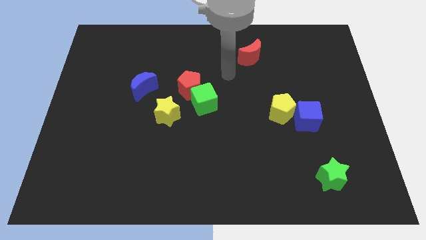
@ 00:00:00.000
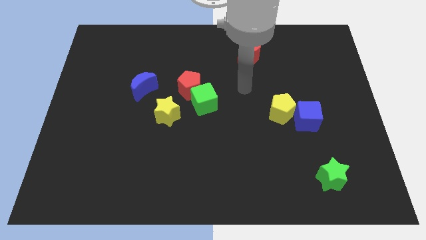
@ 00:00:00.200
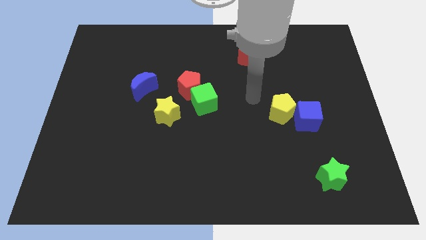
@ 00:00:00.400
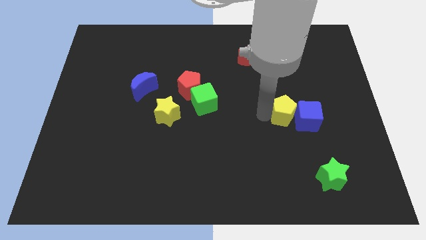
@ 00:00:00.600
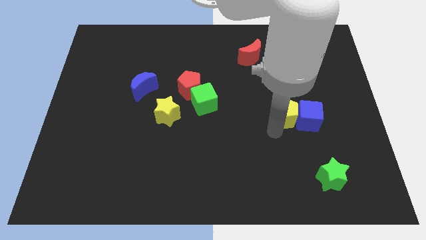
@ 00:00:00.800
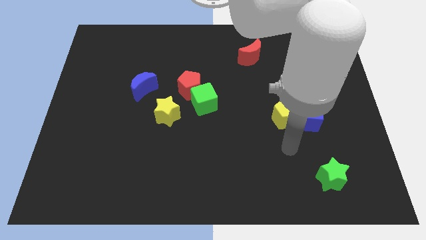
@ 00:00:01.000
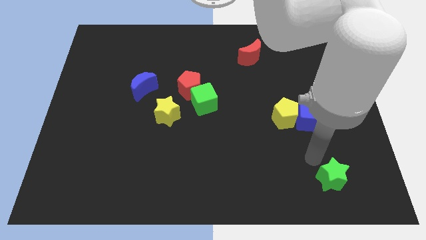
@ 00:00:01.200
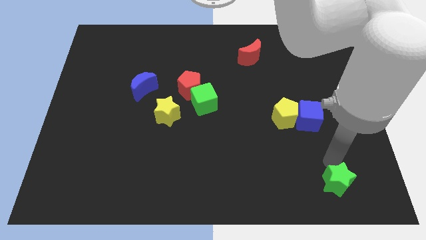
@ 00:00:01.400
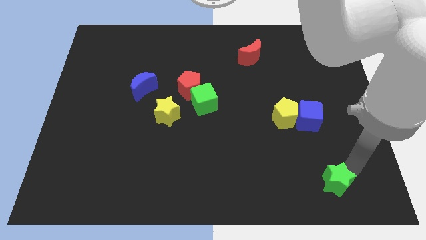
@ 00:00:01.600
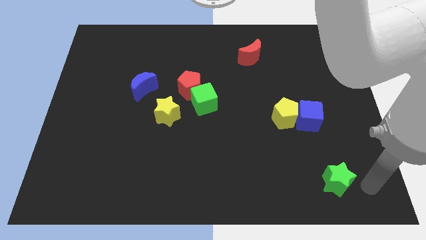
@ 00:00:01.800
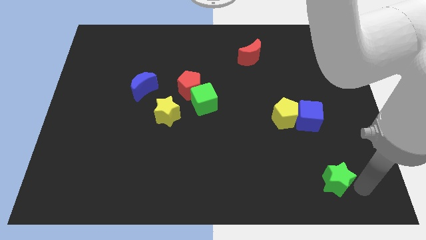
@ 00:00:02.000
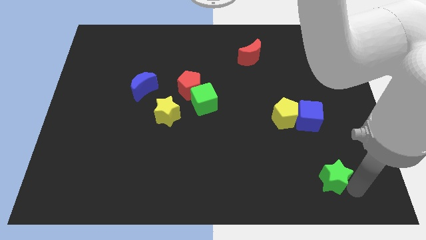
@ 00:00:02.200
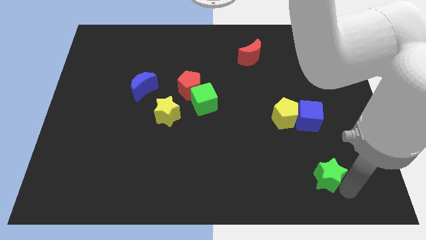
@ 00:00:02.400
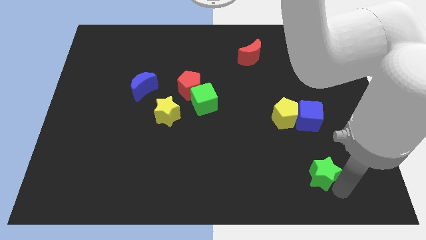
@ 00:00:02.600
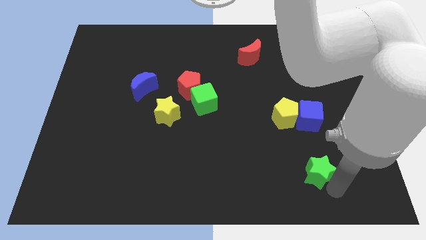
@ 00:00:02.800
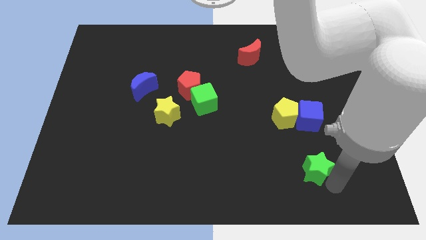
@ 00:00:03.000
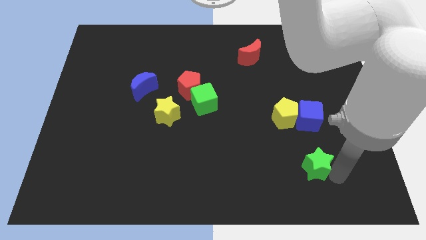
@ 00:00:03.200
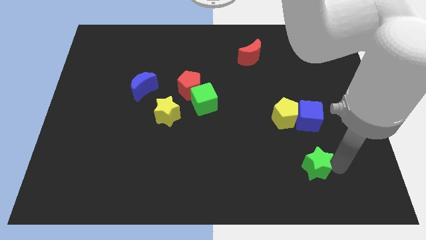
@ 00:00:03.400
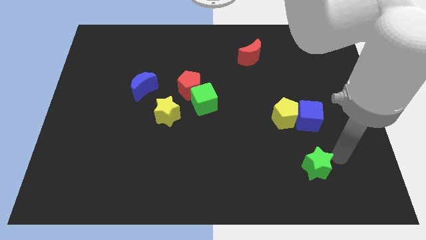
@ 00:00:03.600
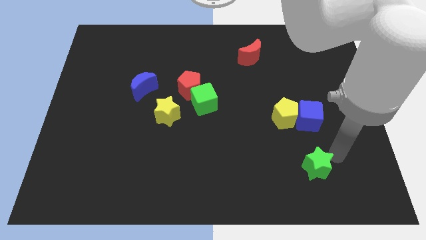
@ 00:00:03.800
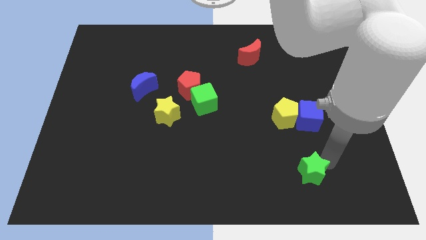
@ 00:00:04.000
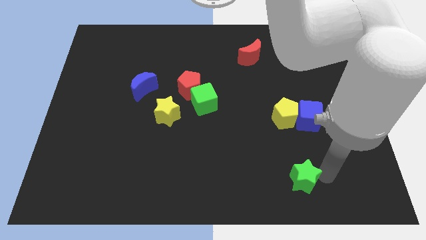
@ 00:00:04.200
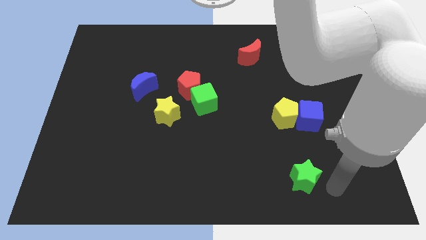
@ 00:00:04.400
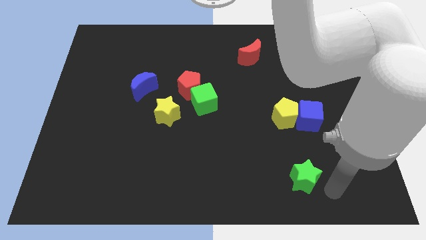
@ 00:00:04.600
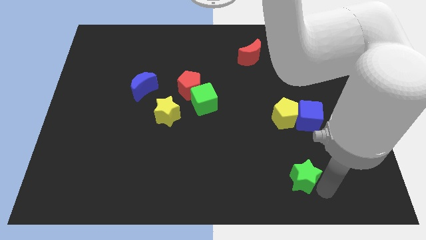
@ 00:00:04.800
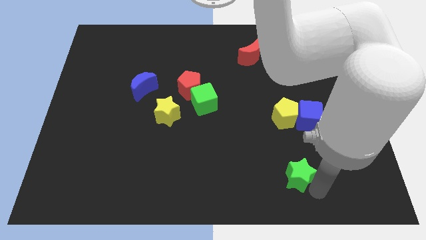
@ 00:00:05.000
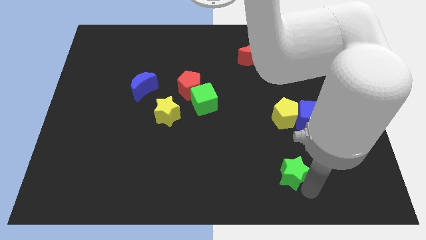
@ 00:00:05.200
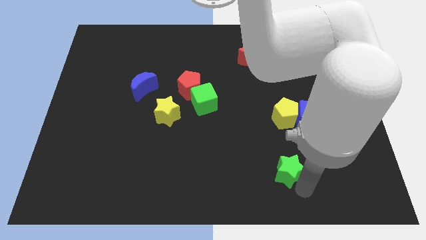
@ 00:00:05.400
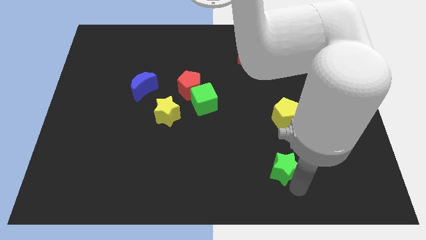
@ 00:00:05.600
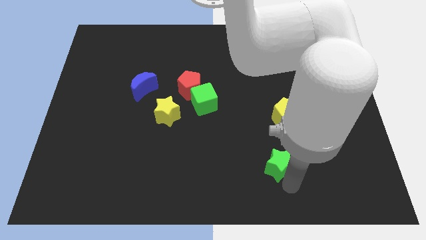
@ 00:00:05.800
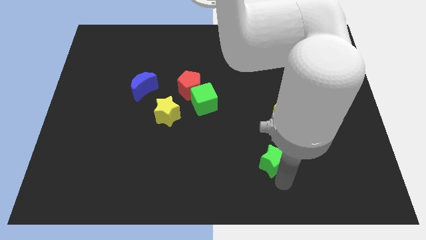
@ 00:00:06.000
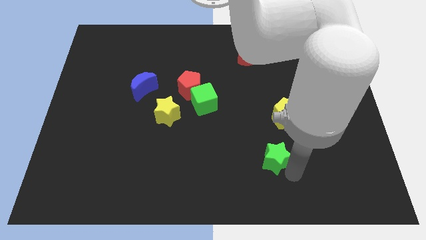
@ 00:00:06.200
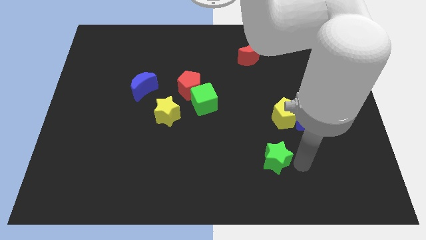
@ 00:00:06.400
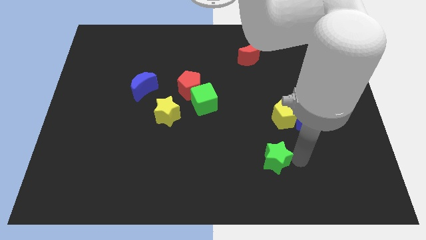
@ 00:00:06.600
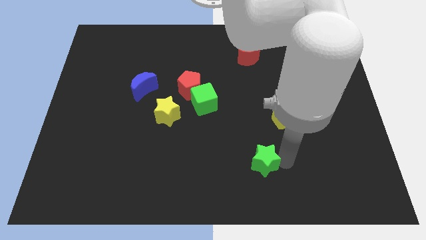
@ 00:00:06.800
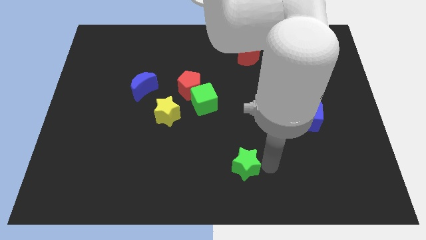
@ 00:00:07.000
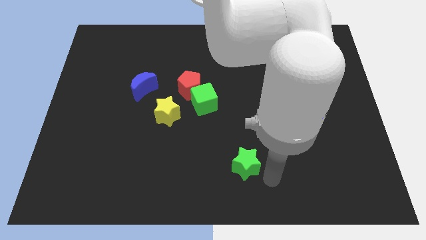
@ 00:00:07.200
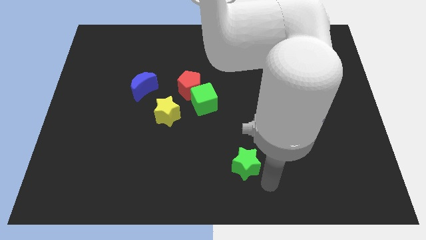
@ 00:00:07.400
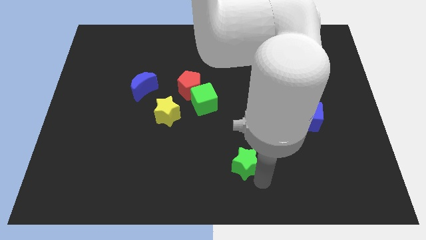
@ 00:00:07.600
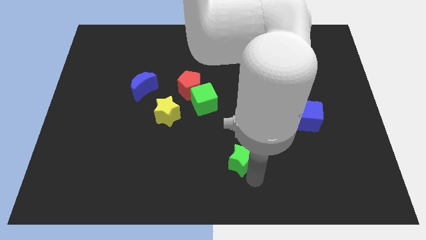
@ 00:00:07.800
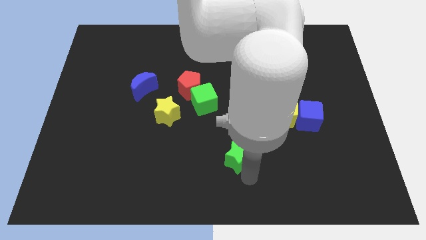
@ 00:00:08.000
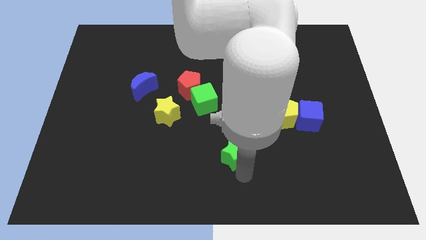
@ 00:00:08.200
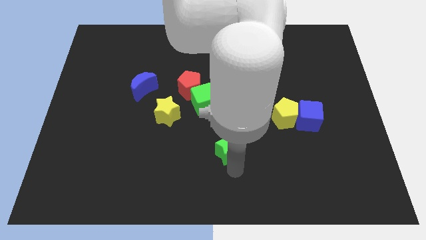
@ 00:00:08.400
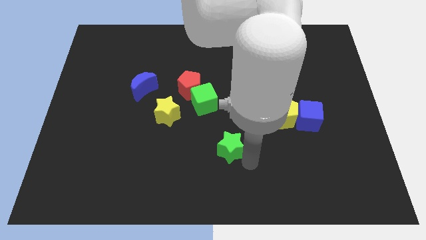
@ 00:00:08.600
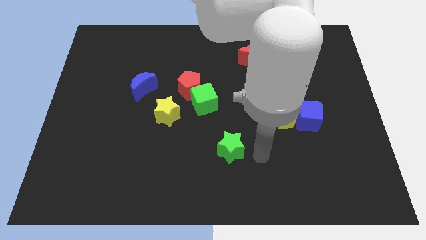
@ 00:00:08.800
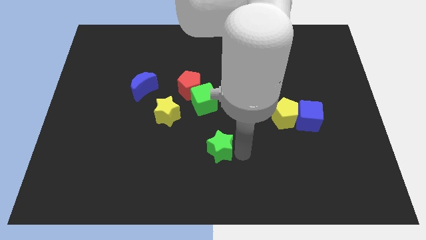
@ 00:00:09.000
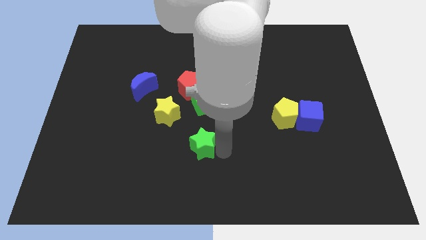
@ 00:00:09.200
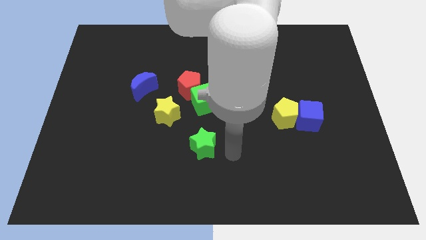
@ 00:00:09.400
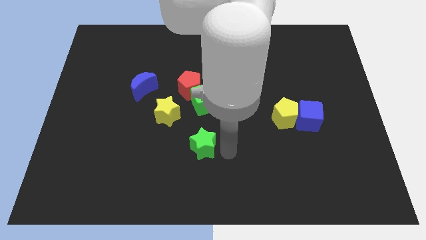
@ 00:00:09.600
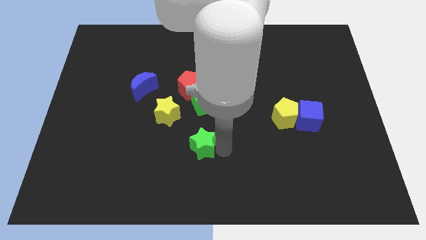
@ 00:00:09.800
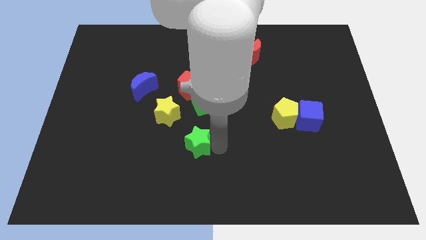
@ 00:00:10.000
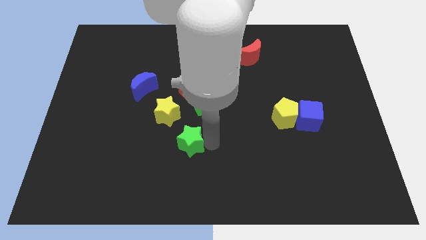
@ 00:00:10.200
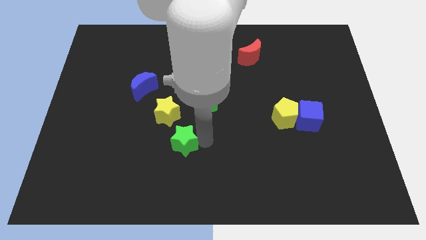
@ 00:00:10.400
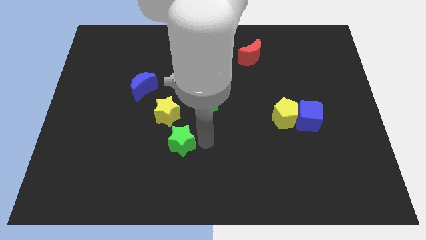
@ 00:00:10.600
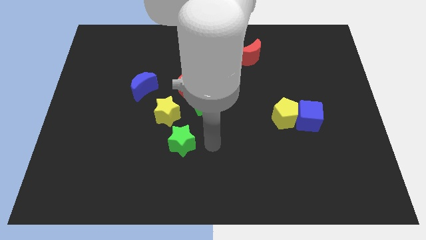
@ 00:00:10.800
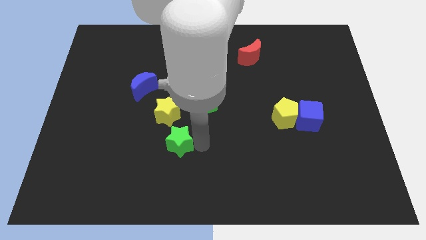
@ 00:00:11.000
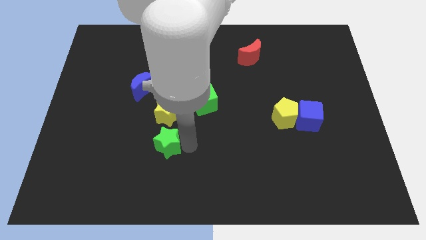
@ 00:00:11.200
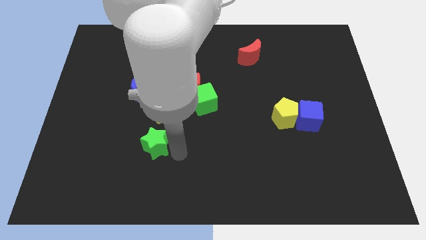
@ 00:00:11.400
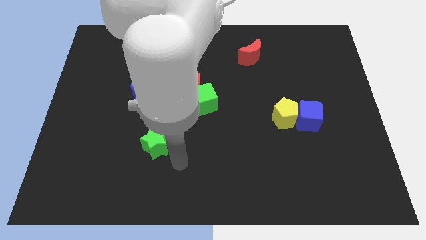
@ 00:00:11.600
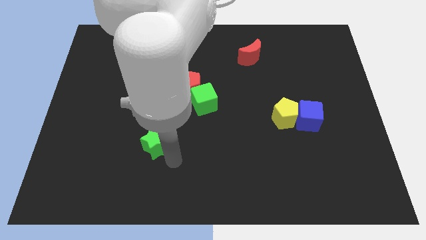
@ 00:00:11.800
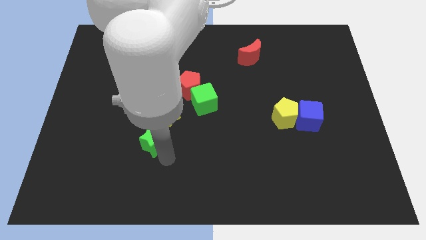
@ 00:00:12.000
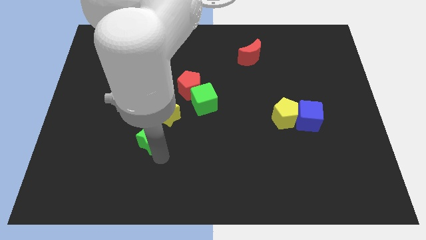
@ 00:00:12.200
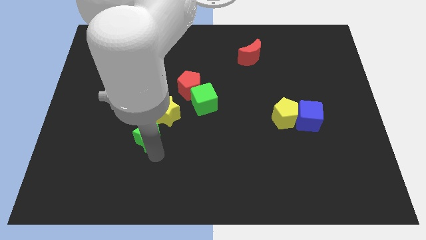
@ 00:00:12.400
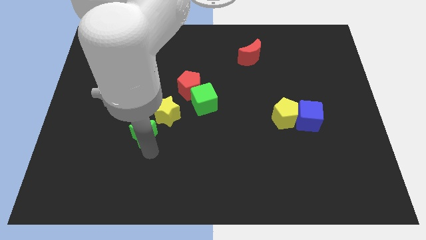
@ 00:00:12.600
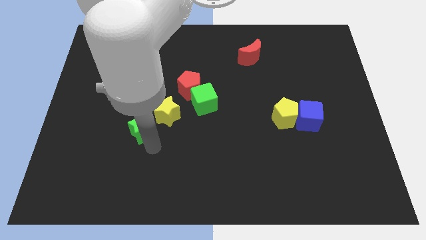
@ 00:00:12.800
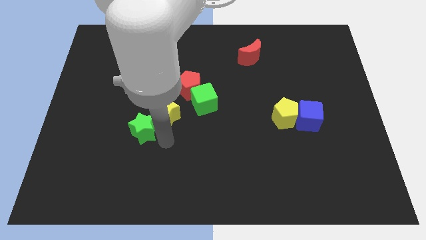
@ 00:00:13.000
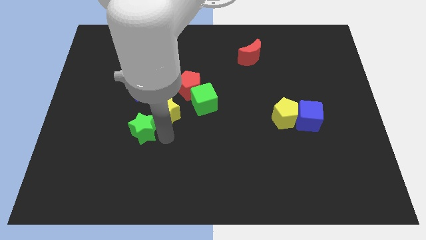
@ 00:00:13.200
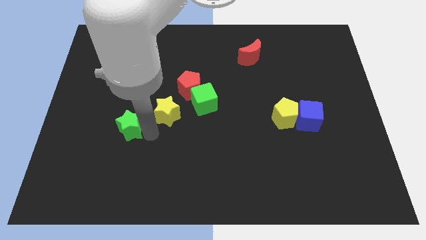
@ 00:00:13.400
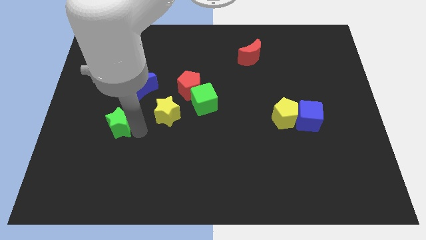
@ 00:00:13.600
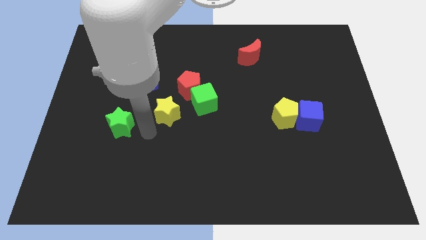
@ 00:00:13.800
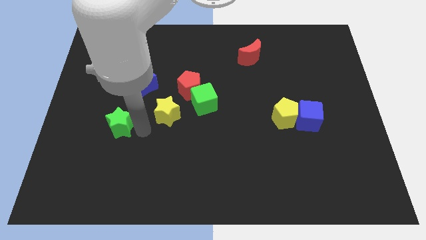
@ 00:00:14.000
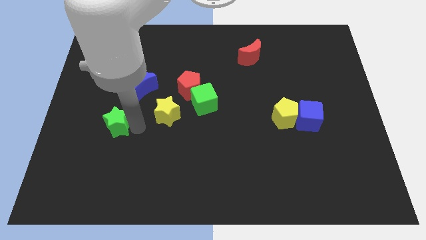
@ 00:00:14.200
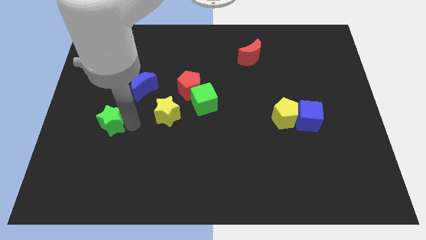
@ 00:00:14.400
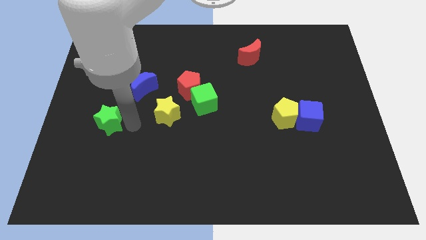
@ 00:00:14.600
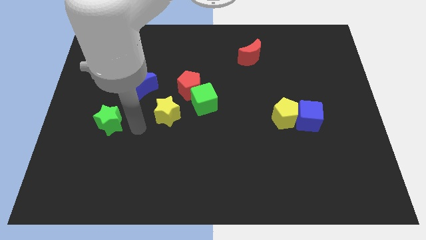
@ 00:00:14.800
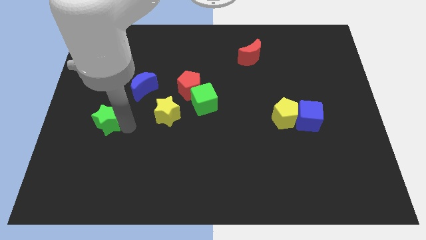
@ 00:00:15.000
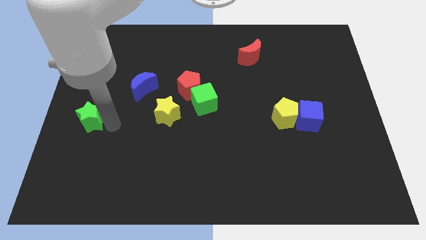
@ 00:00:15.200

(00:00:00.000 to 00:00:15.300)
move the green star to the center left

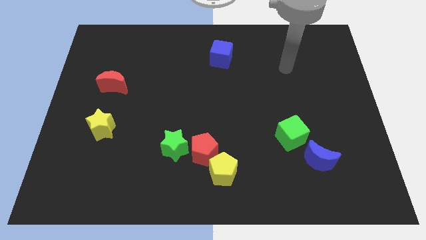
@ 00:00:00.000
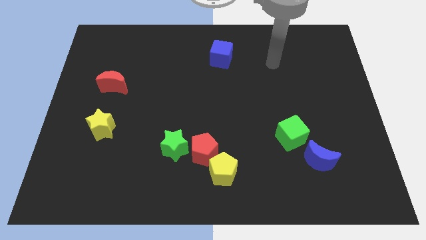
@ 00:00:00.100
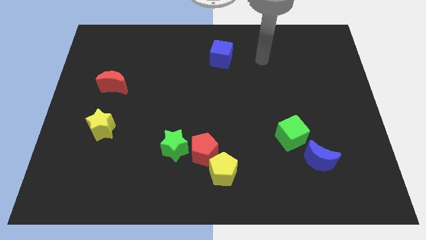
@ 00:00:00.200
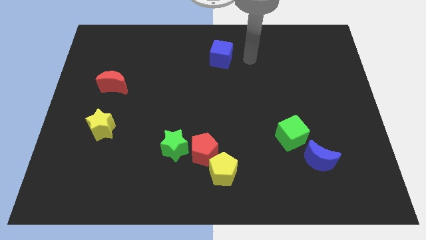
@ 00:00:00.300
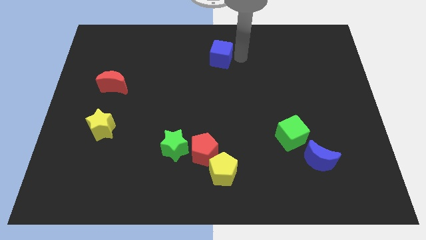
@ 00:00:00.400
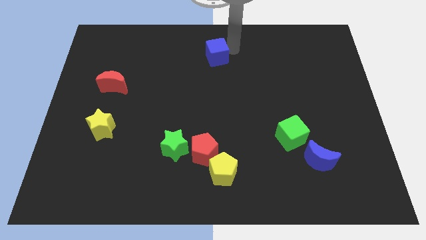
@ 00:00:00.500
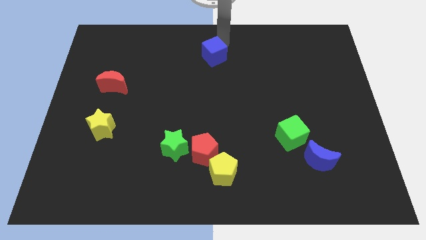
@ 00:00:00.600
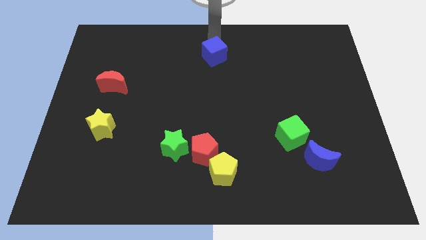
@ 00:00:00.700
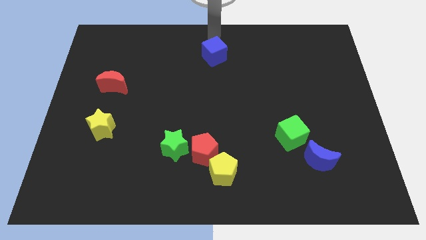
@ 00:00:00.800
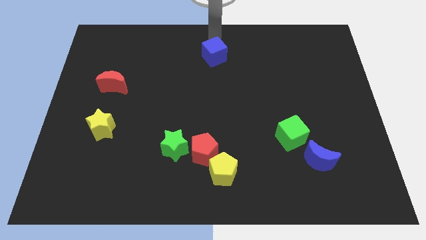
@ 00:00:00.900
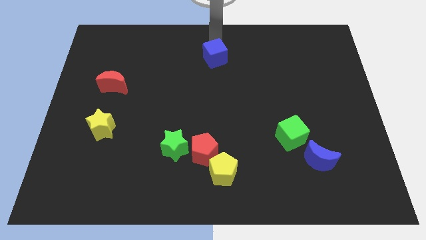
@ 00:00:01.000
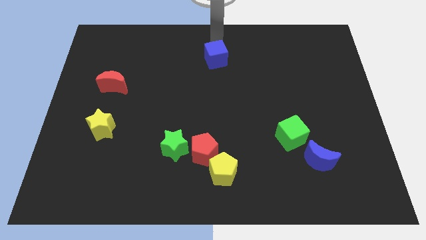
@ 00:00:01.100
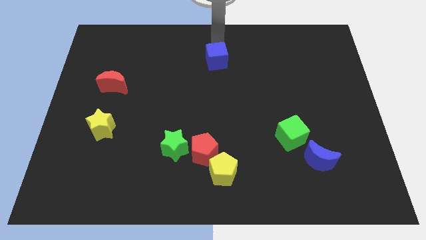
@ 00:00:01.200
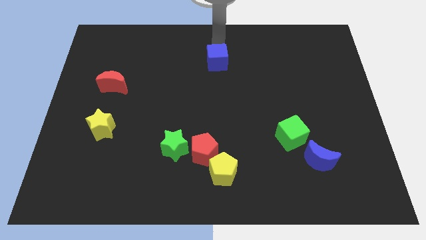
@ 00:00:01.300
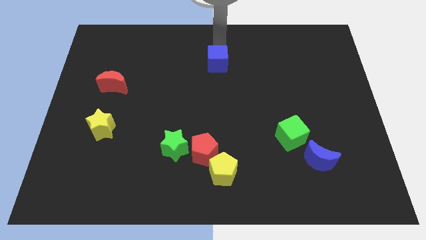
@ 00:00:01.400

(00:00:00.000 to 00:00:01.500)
slide the blue cube to the center
